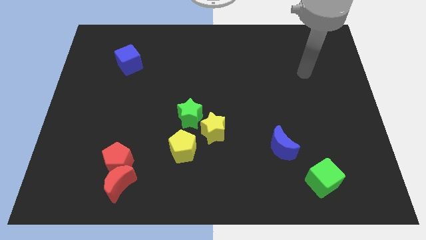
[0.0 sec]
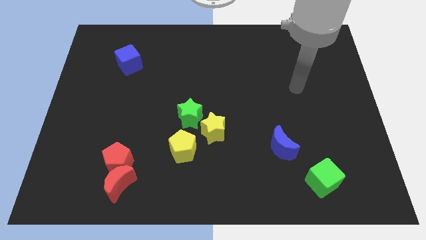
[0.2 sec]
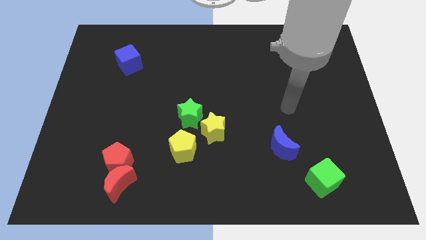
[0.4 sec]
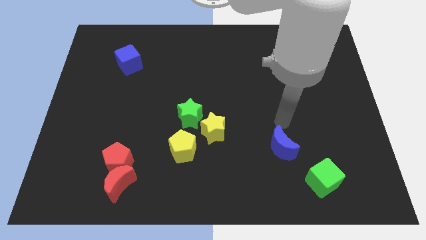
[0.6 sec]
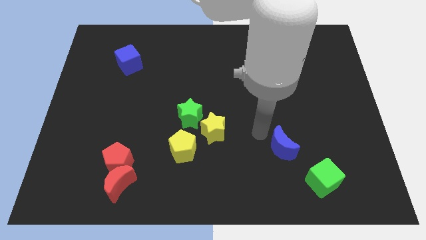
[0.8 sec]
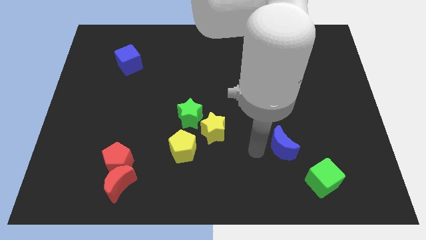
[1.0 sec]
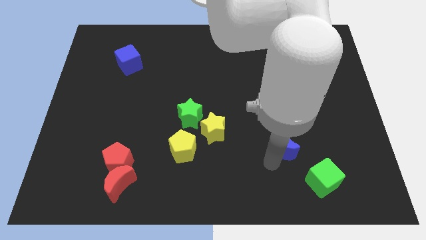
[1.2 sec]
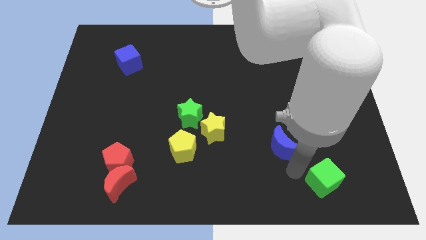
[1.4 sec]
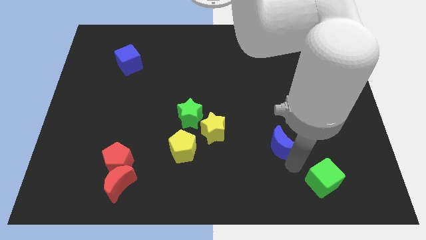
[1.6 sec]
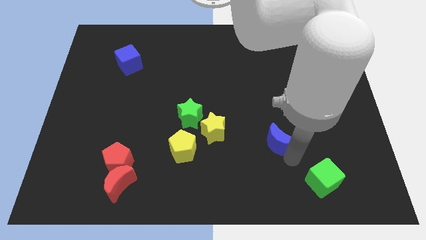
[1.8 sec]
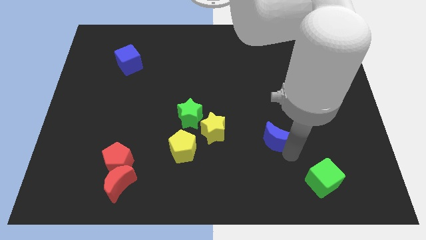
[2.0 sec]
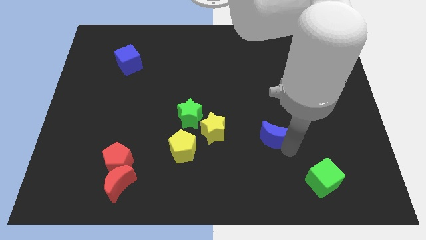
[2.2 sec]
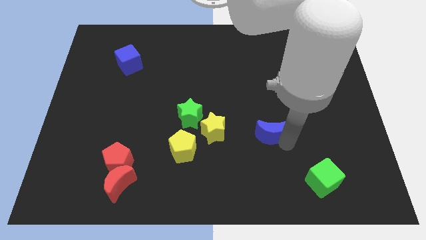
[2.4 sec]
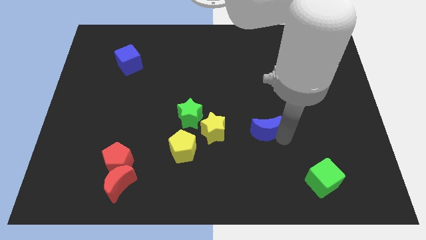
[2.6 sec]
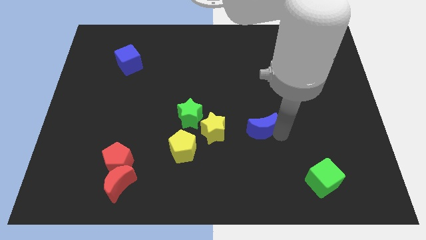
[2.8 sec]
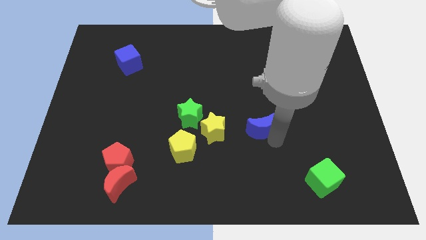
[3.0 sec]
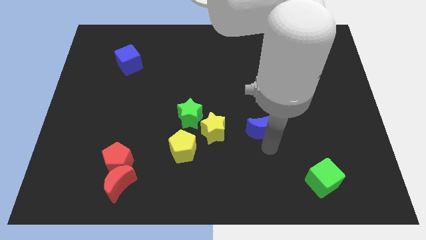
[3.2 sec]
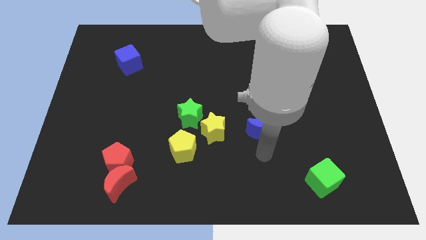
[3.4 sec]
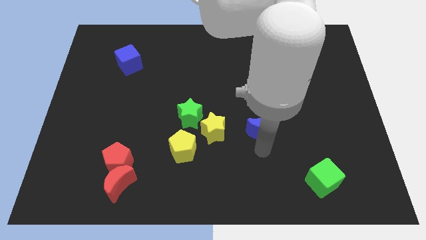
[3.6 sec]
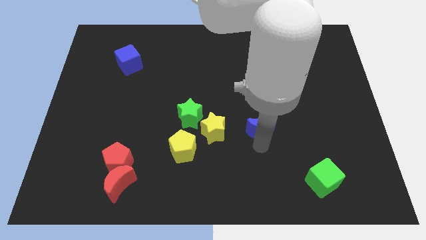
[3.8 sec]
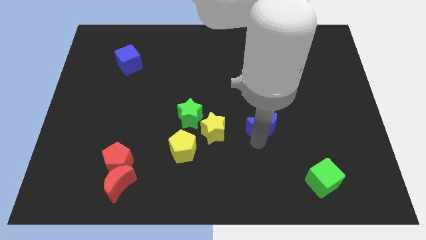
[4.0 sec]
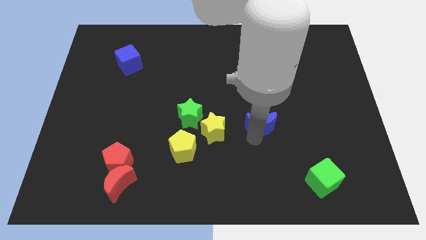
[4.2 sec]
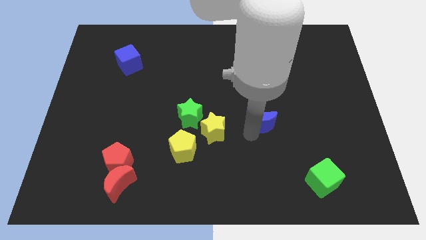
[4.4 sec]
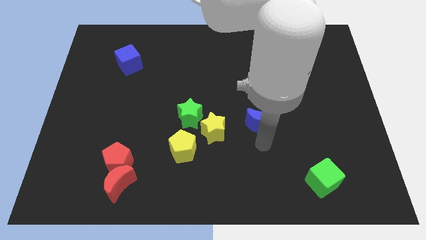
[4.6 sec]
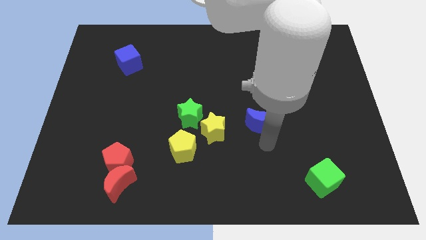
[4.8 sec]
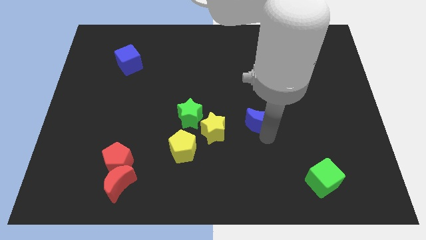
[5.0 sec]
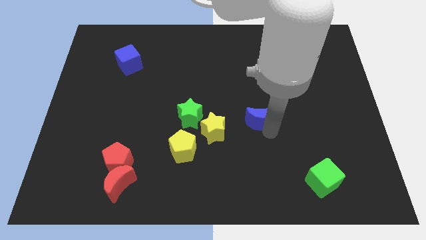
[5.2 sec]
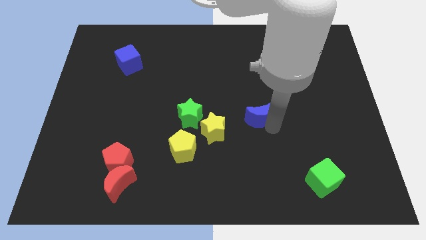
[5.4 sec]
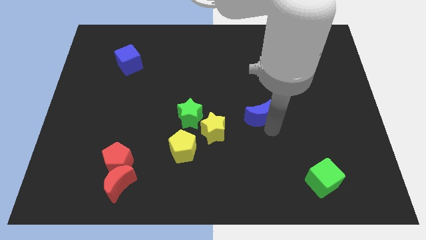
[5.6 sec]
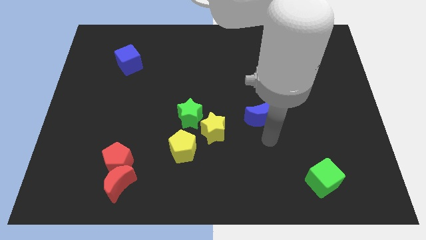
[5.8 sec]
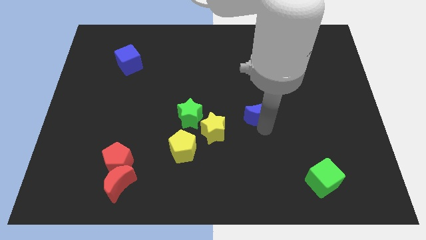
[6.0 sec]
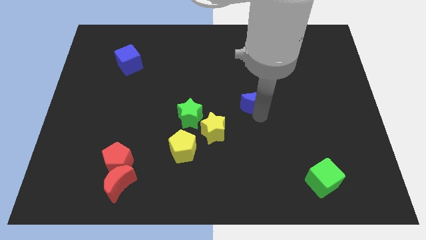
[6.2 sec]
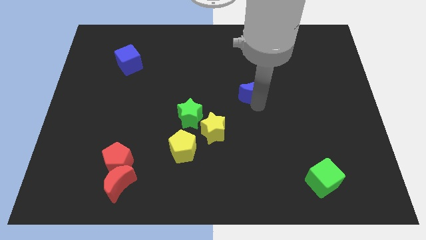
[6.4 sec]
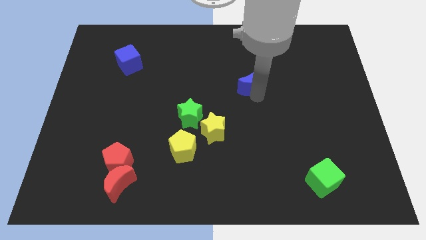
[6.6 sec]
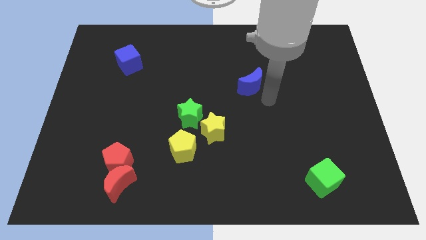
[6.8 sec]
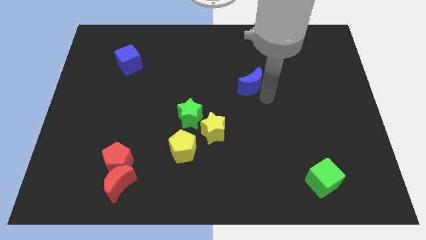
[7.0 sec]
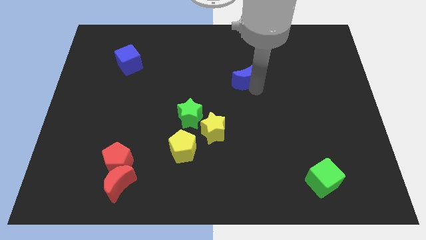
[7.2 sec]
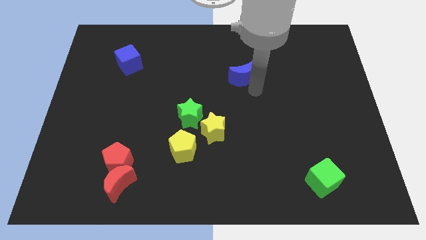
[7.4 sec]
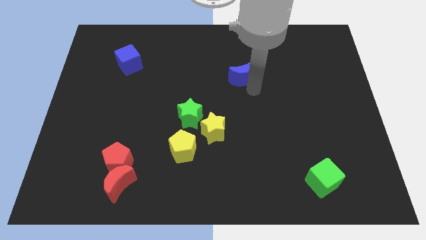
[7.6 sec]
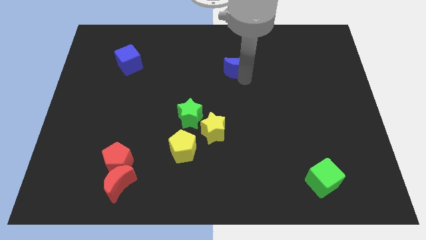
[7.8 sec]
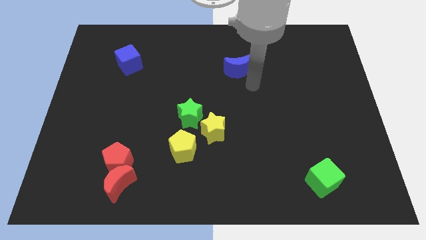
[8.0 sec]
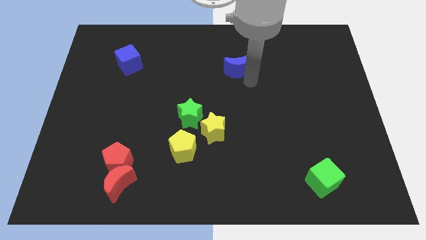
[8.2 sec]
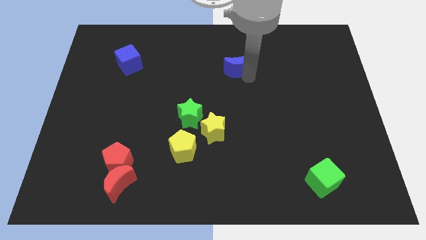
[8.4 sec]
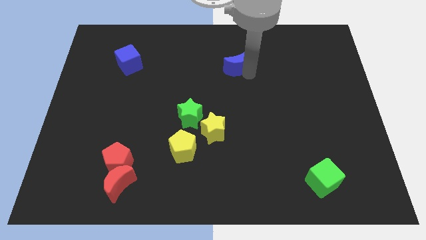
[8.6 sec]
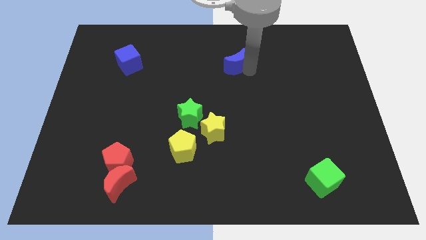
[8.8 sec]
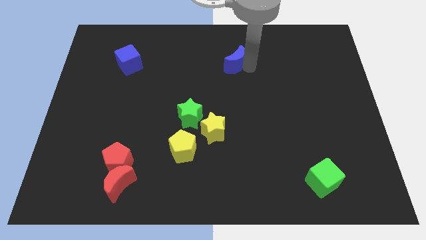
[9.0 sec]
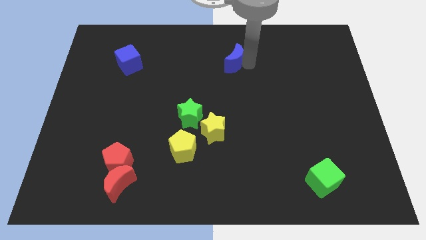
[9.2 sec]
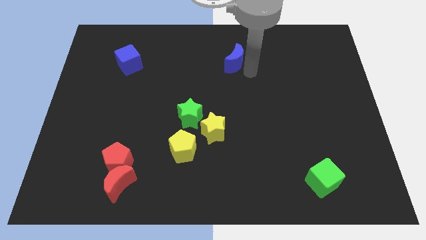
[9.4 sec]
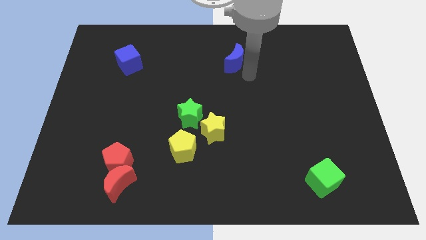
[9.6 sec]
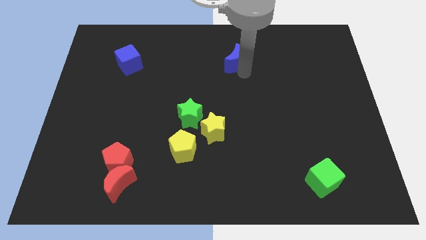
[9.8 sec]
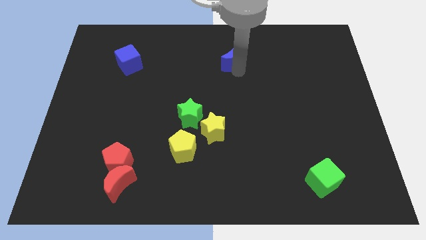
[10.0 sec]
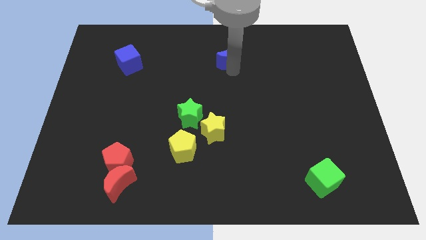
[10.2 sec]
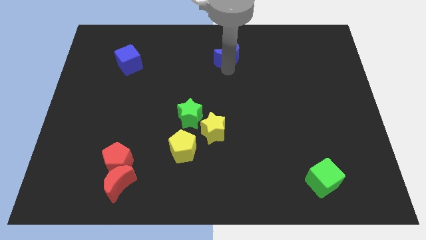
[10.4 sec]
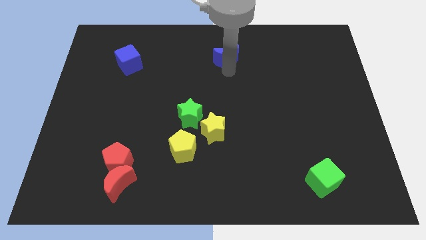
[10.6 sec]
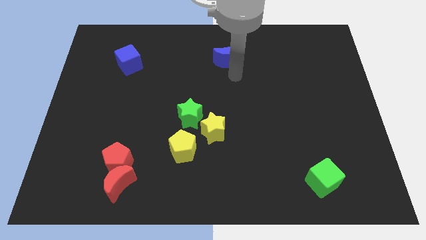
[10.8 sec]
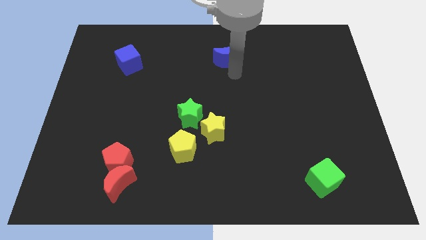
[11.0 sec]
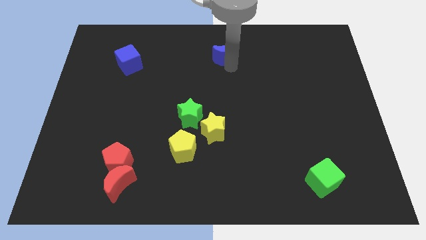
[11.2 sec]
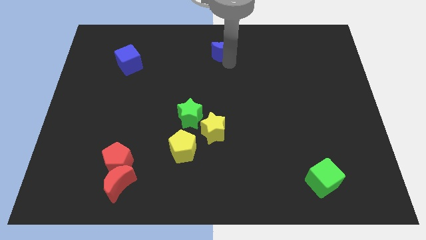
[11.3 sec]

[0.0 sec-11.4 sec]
put the blue moon to the towards your base
